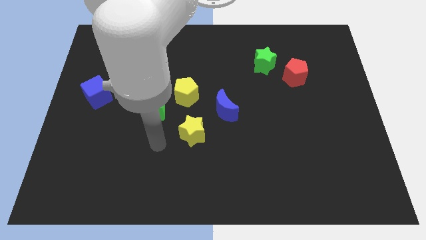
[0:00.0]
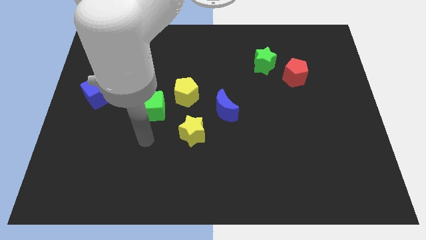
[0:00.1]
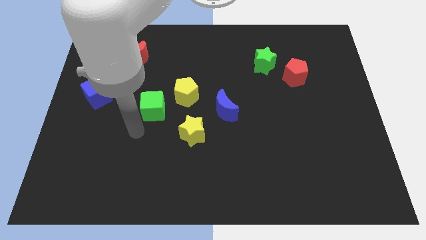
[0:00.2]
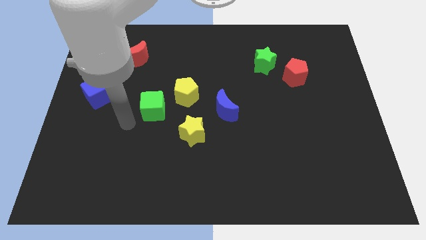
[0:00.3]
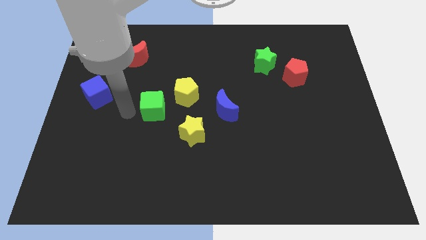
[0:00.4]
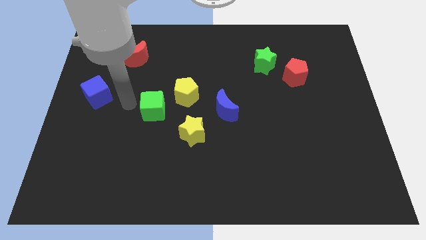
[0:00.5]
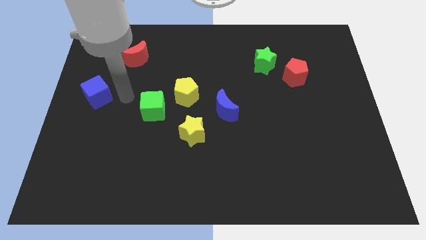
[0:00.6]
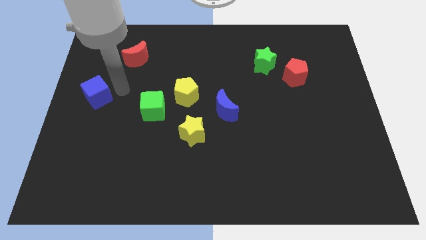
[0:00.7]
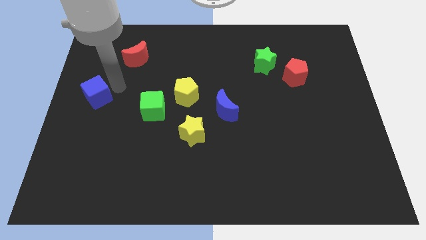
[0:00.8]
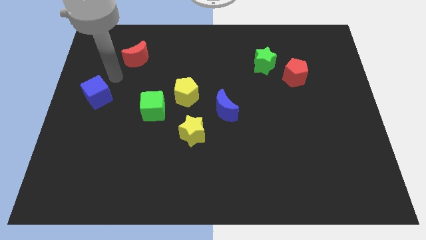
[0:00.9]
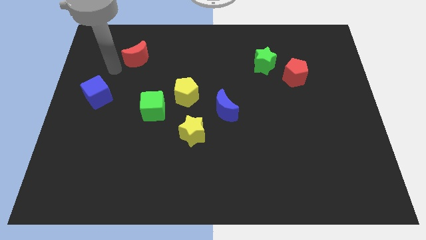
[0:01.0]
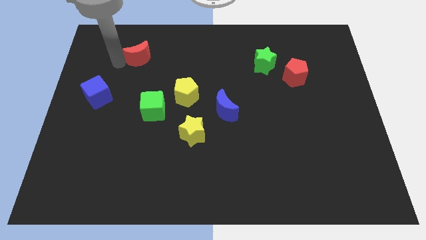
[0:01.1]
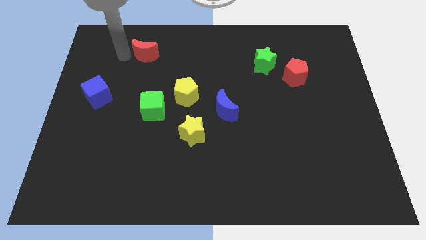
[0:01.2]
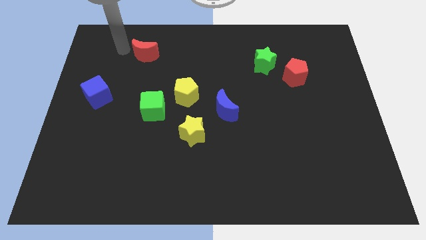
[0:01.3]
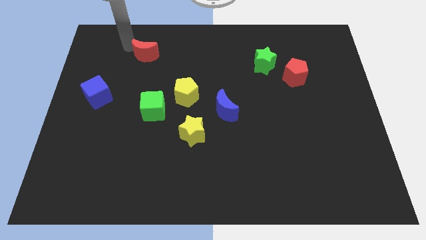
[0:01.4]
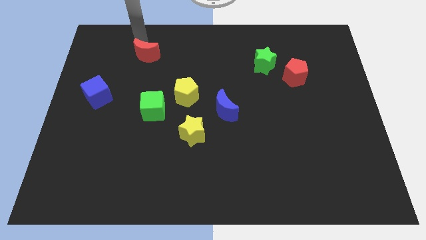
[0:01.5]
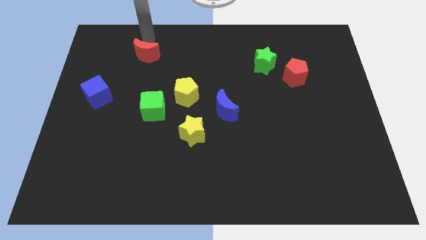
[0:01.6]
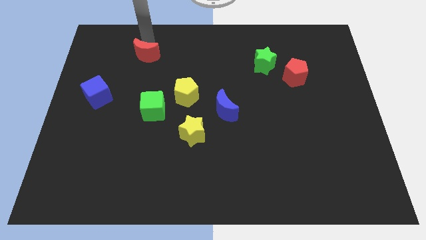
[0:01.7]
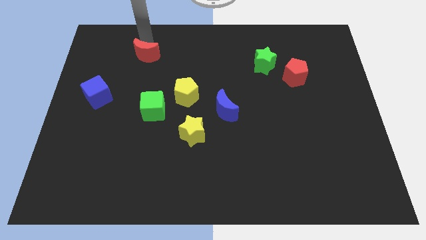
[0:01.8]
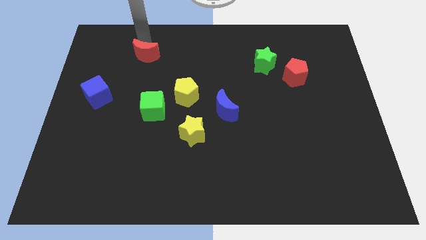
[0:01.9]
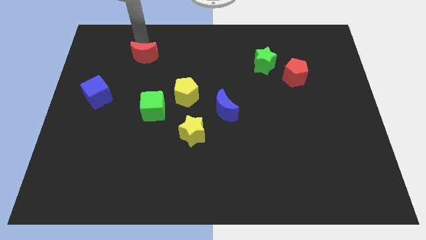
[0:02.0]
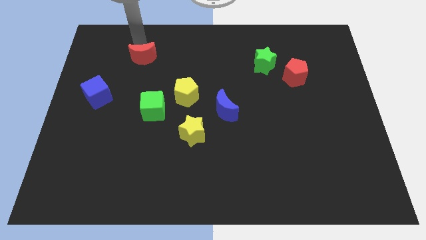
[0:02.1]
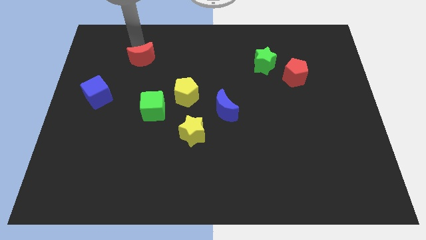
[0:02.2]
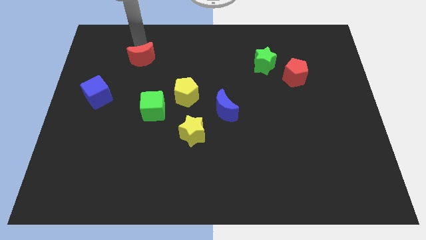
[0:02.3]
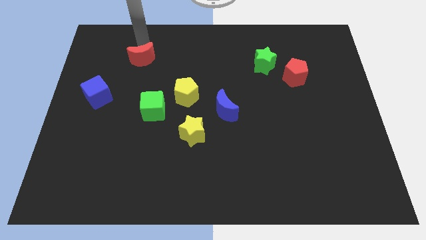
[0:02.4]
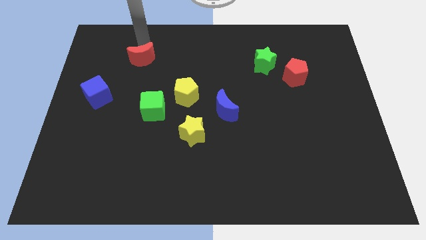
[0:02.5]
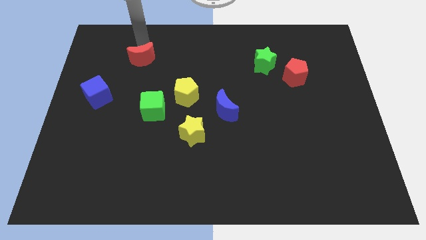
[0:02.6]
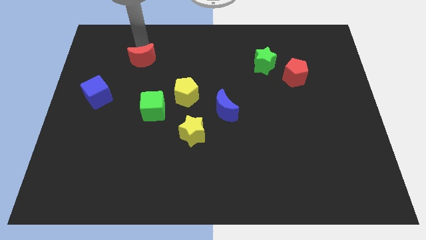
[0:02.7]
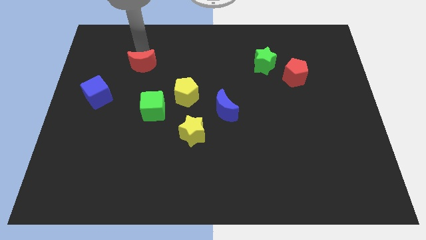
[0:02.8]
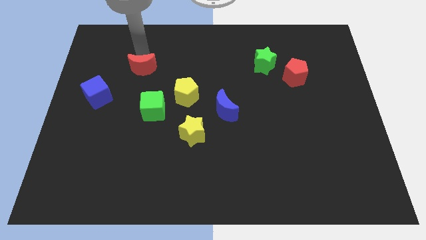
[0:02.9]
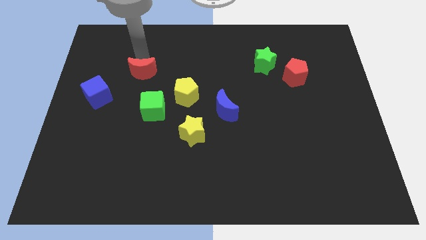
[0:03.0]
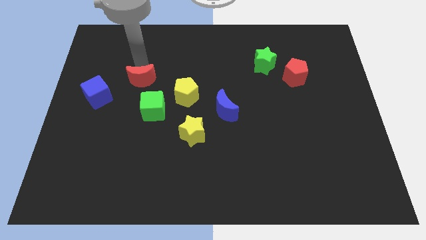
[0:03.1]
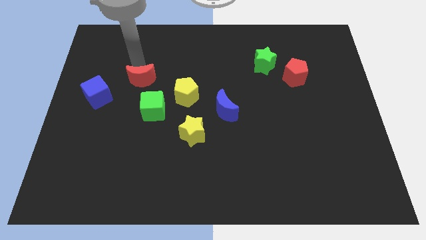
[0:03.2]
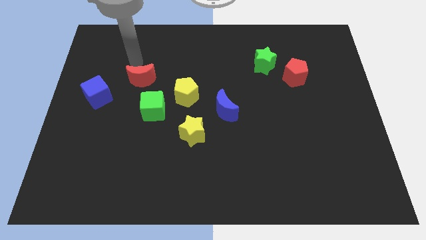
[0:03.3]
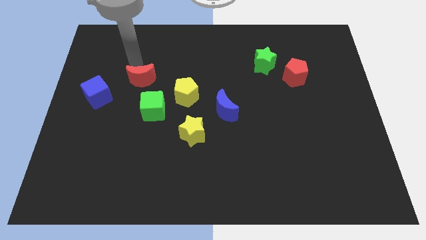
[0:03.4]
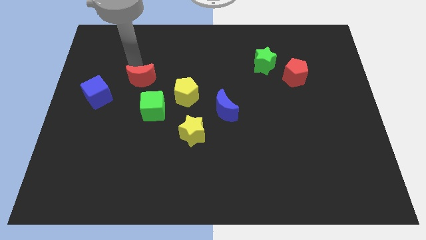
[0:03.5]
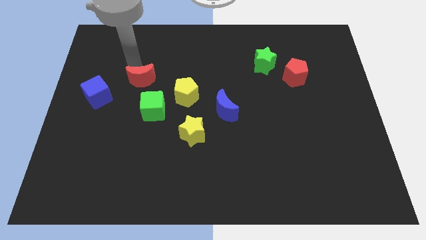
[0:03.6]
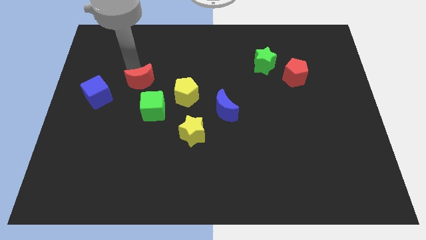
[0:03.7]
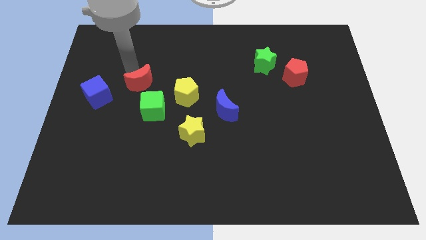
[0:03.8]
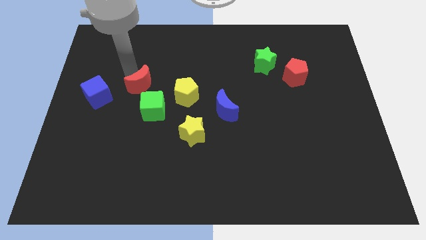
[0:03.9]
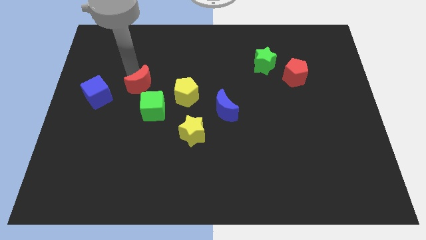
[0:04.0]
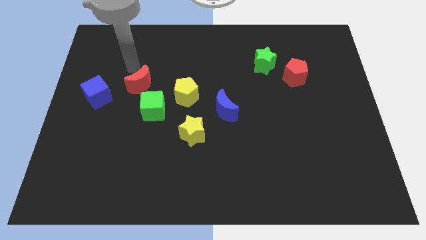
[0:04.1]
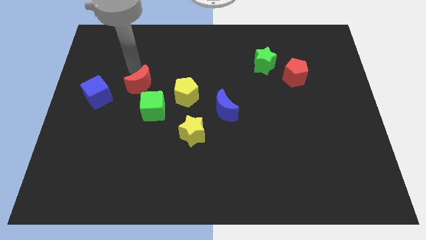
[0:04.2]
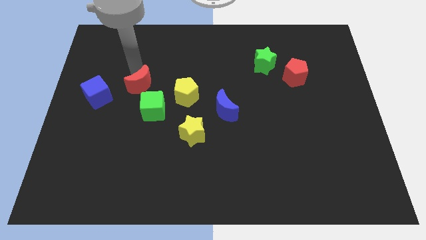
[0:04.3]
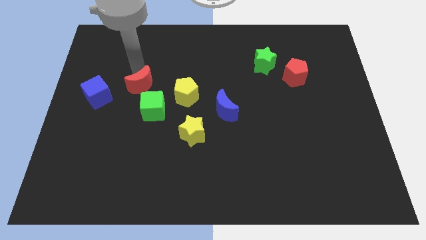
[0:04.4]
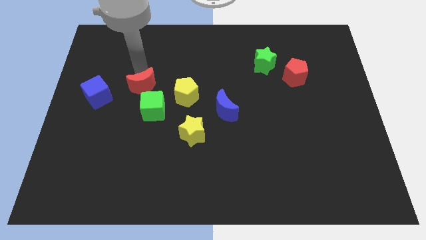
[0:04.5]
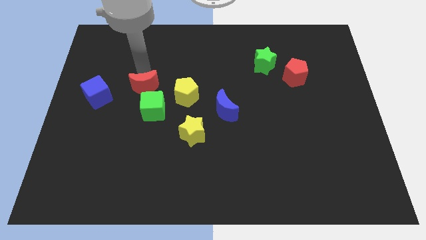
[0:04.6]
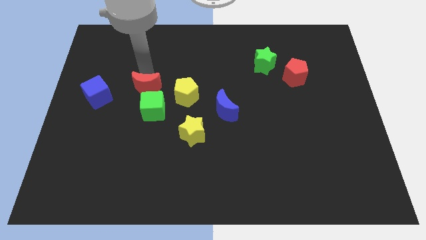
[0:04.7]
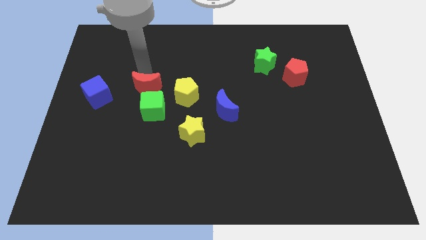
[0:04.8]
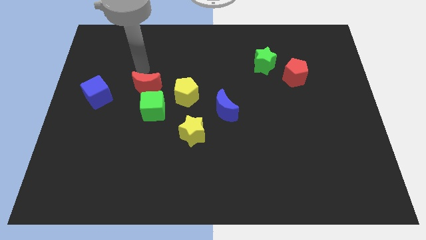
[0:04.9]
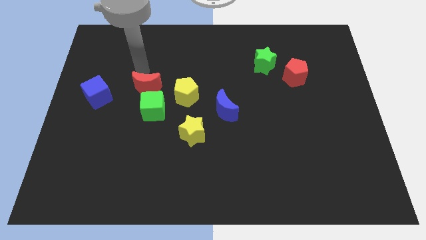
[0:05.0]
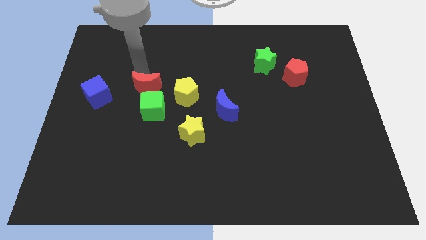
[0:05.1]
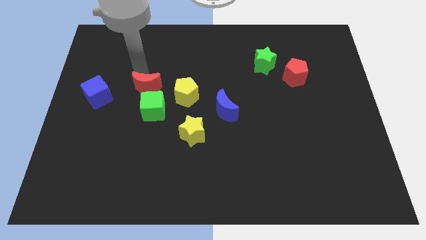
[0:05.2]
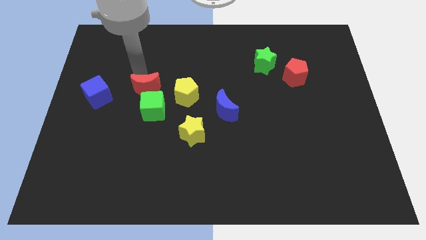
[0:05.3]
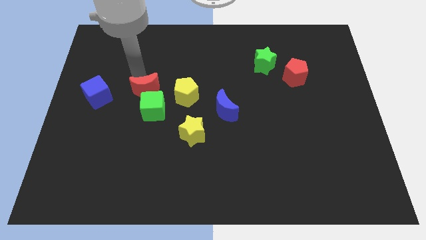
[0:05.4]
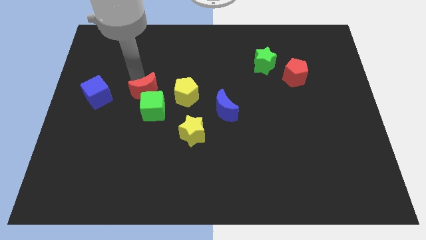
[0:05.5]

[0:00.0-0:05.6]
move the red moon next to the green cube

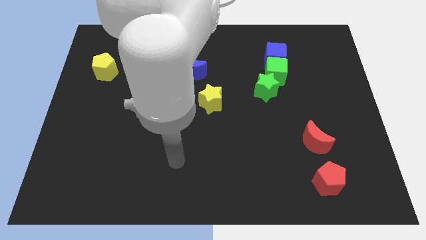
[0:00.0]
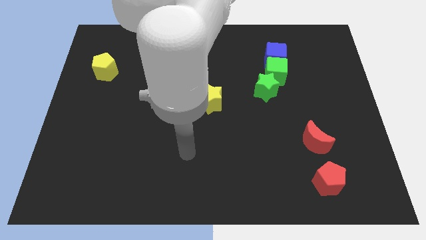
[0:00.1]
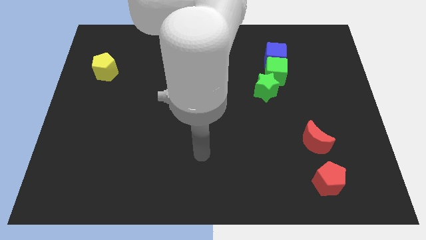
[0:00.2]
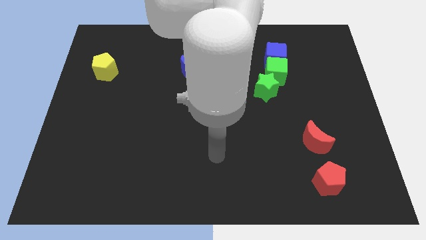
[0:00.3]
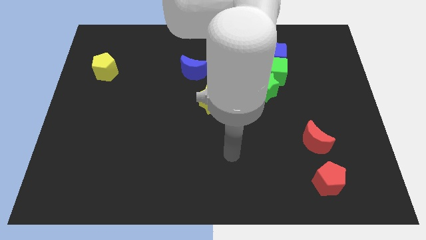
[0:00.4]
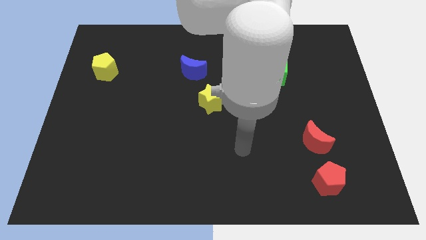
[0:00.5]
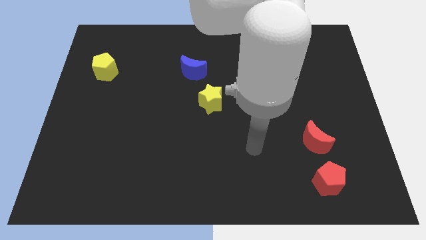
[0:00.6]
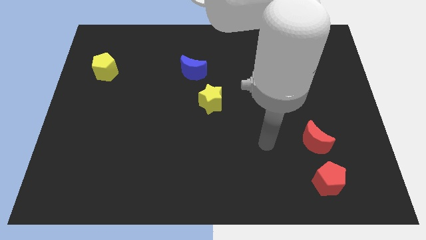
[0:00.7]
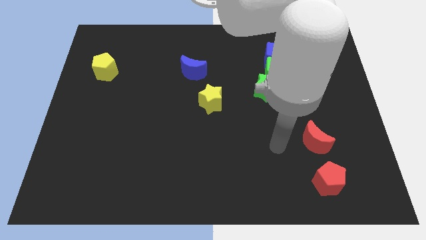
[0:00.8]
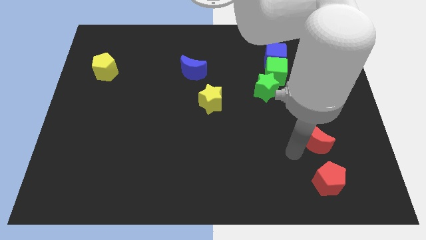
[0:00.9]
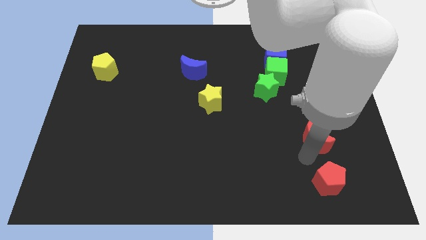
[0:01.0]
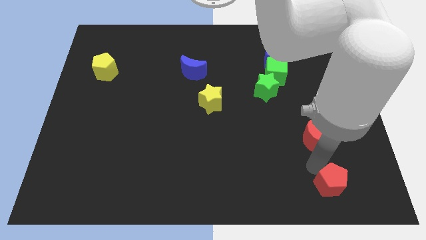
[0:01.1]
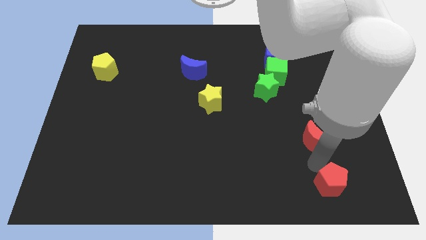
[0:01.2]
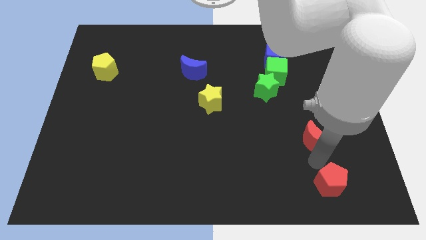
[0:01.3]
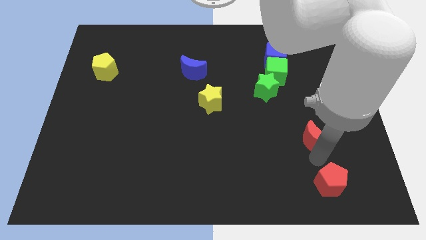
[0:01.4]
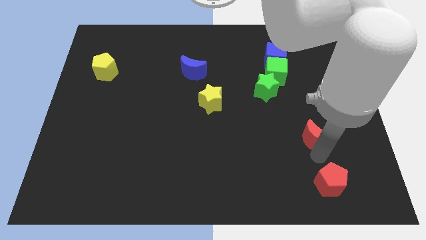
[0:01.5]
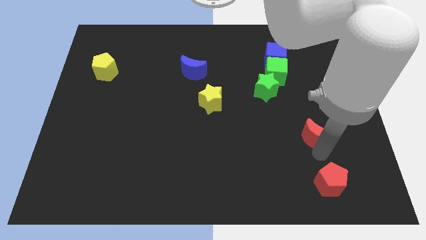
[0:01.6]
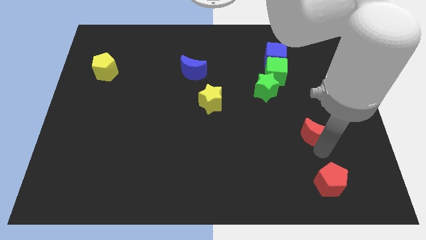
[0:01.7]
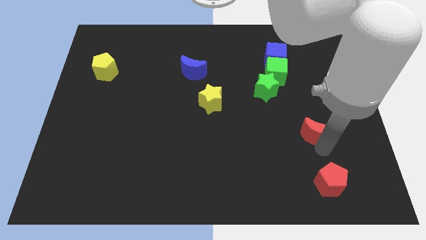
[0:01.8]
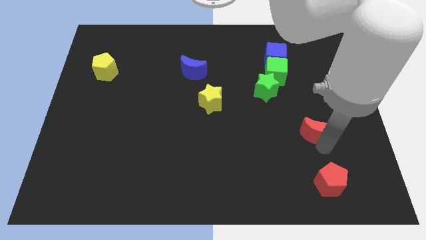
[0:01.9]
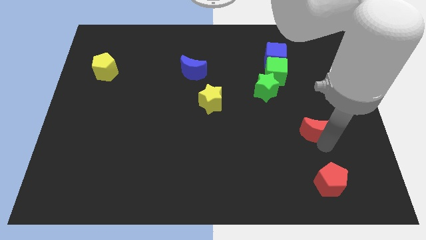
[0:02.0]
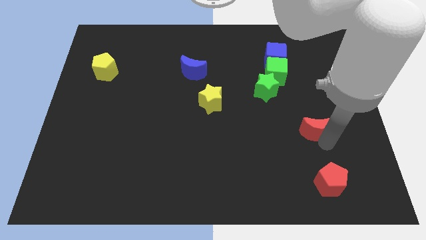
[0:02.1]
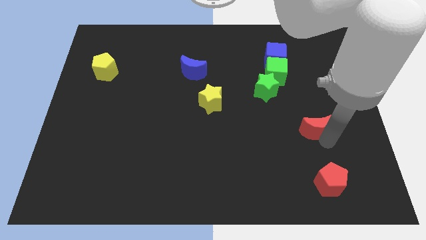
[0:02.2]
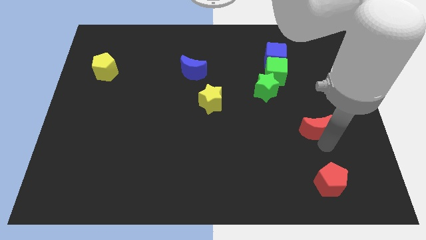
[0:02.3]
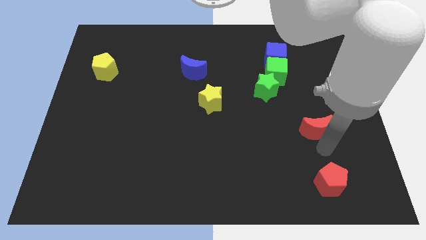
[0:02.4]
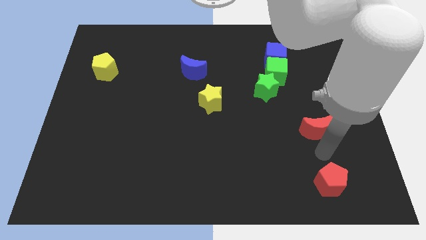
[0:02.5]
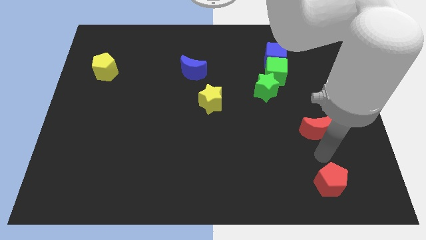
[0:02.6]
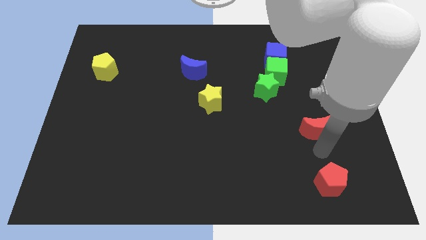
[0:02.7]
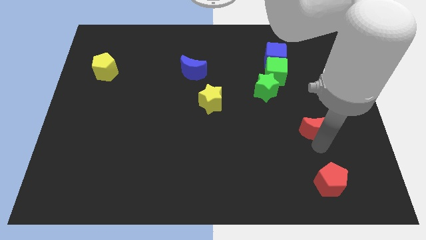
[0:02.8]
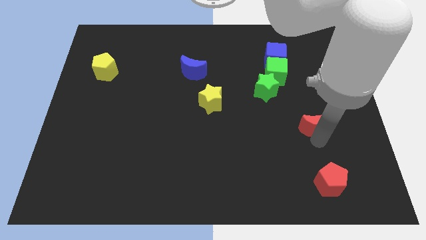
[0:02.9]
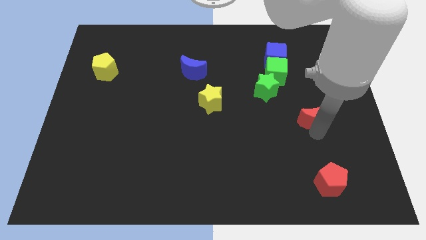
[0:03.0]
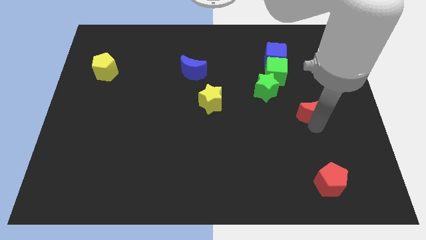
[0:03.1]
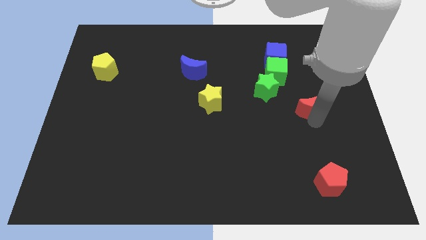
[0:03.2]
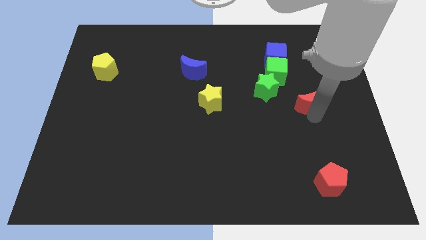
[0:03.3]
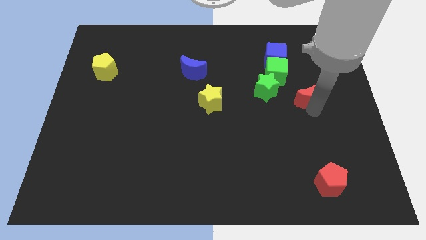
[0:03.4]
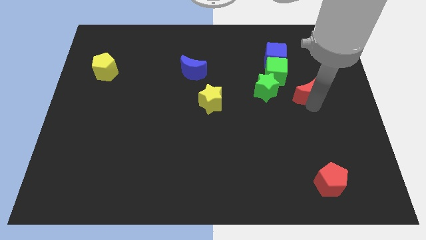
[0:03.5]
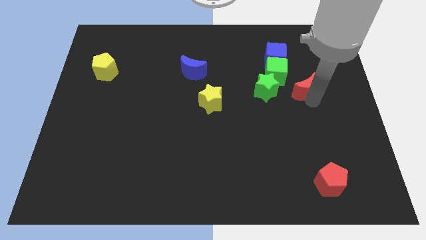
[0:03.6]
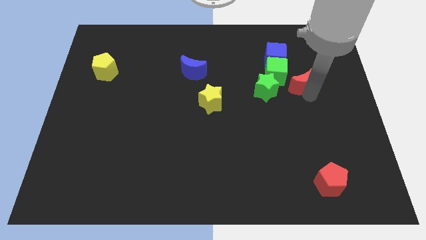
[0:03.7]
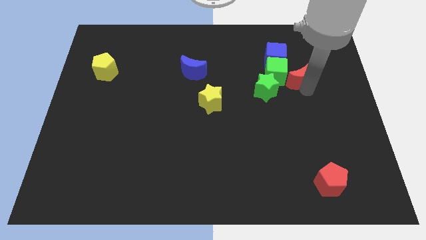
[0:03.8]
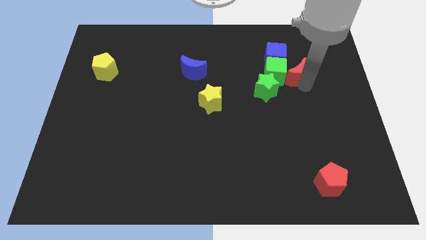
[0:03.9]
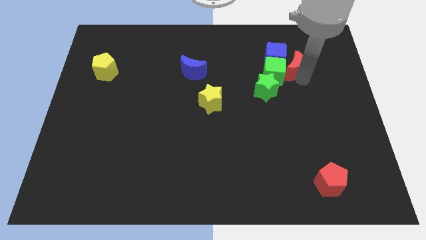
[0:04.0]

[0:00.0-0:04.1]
move the red moon to the blue cube
